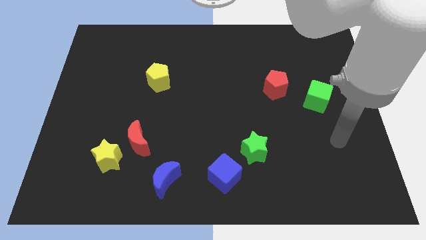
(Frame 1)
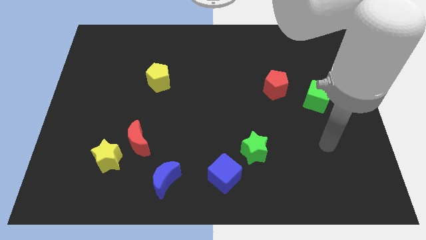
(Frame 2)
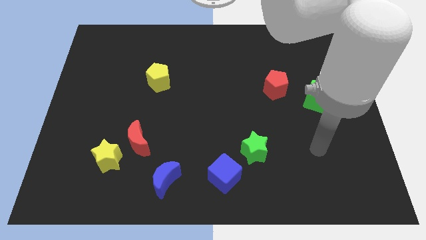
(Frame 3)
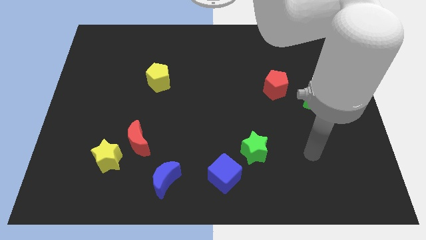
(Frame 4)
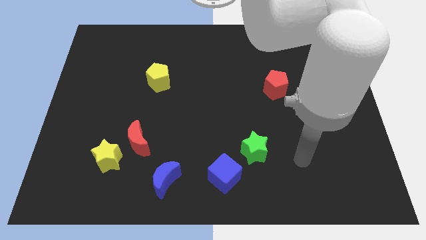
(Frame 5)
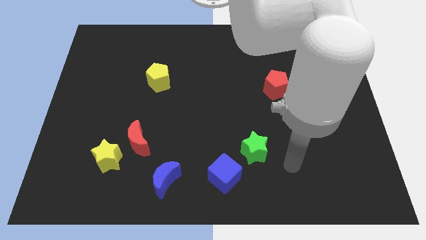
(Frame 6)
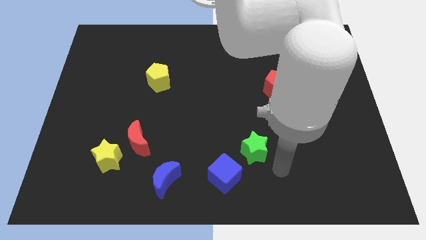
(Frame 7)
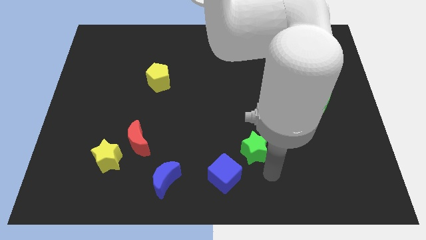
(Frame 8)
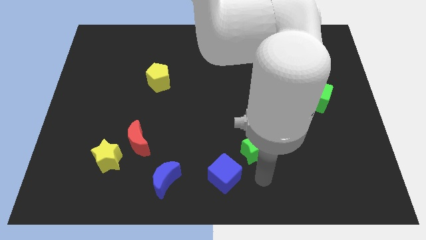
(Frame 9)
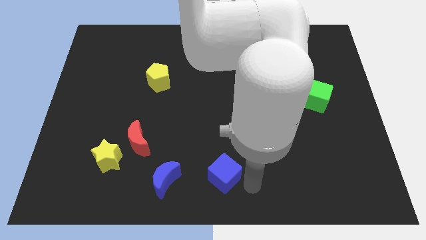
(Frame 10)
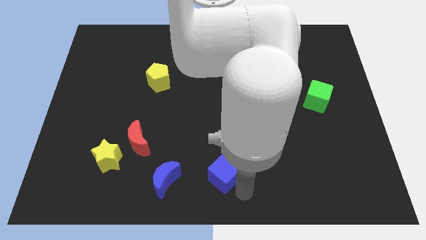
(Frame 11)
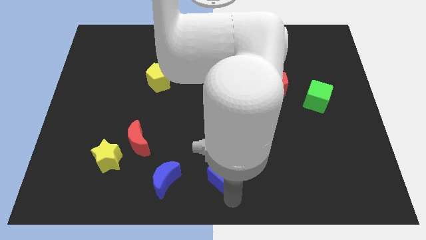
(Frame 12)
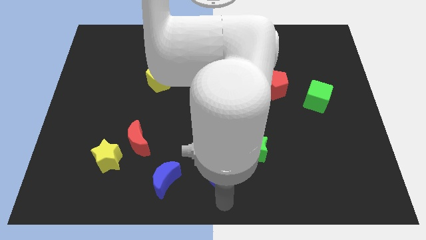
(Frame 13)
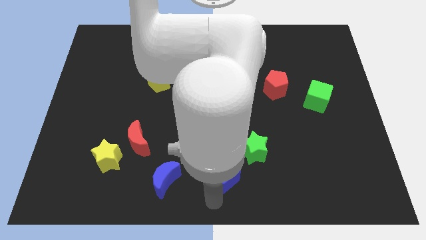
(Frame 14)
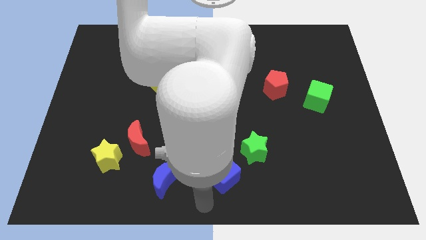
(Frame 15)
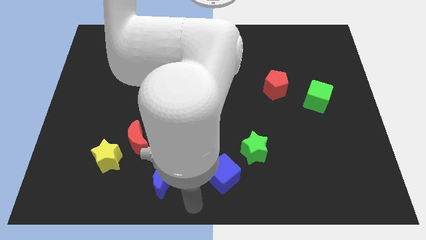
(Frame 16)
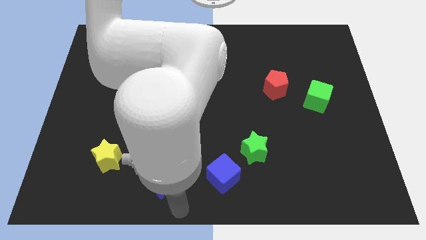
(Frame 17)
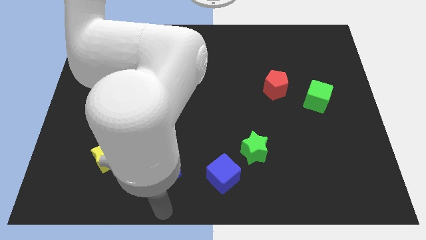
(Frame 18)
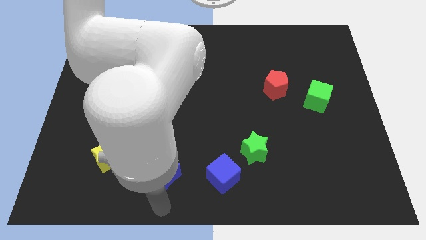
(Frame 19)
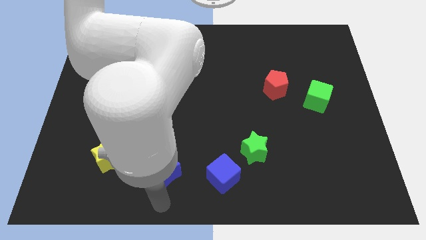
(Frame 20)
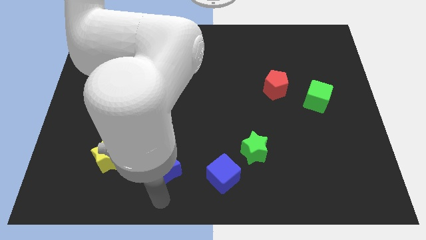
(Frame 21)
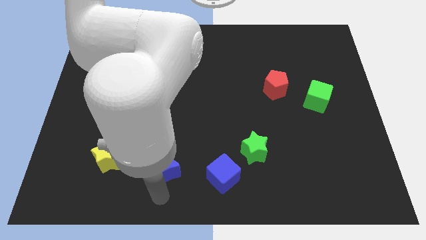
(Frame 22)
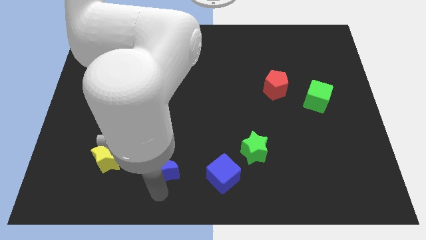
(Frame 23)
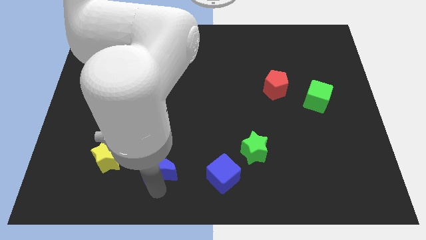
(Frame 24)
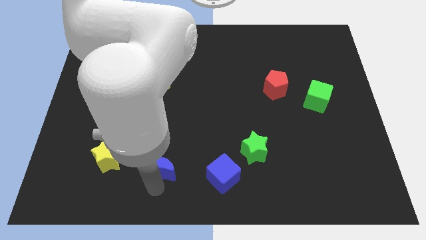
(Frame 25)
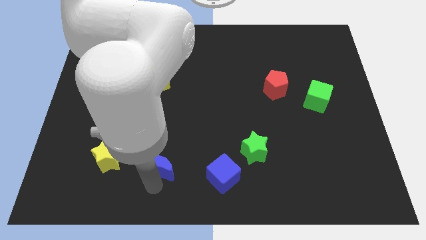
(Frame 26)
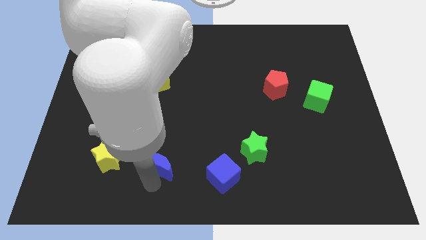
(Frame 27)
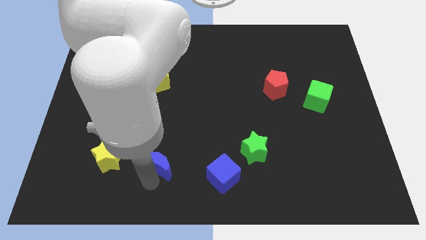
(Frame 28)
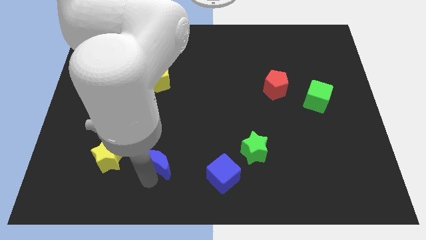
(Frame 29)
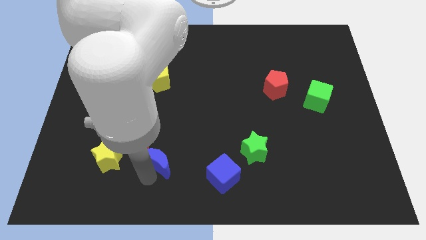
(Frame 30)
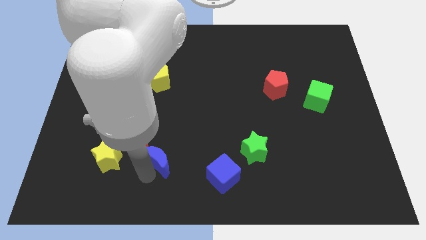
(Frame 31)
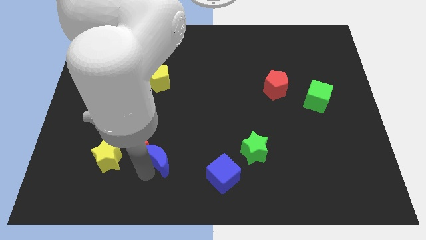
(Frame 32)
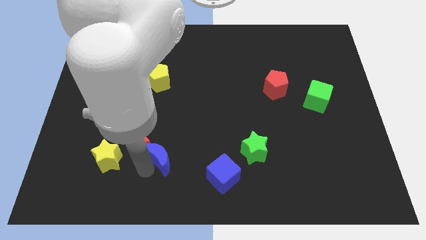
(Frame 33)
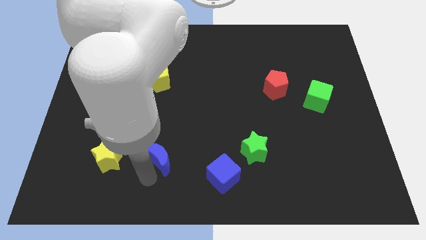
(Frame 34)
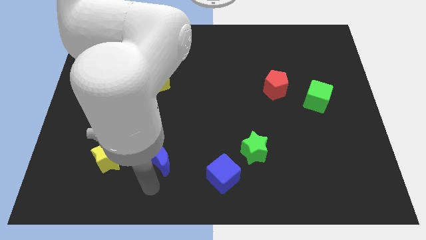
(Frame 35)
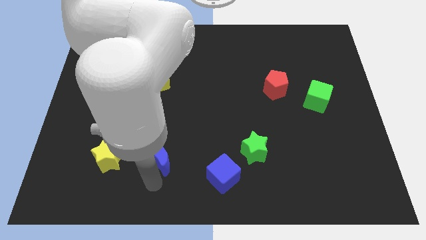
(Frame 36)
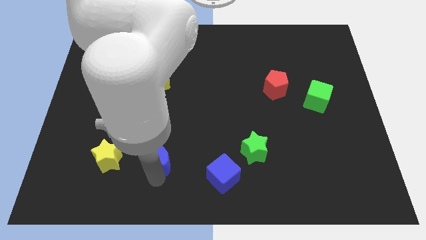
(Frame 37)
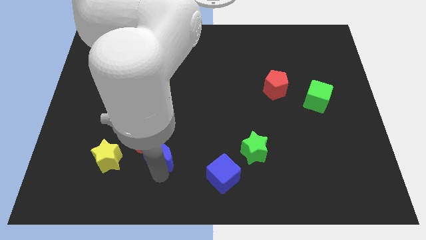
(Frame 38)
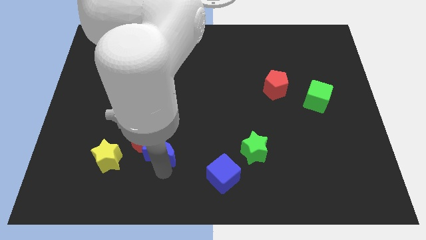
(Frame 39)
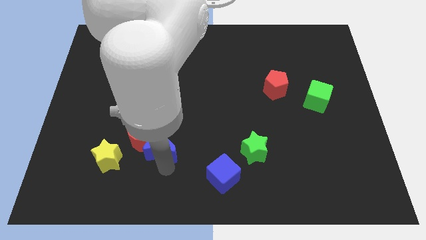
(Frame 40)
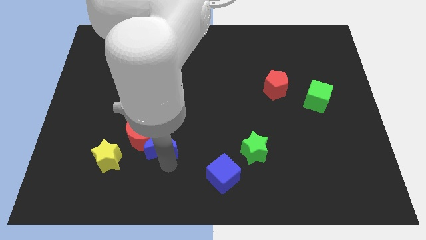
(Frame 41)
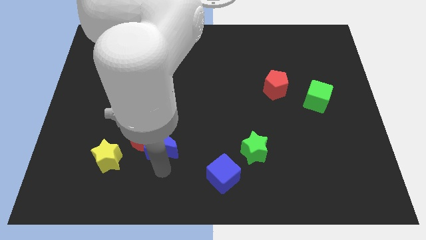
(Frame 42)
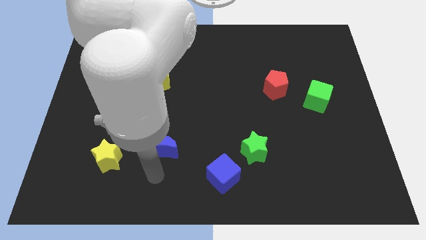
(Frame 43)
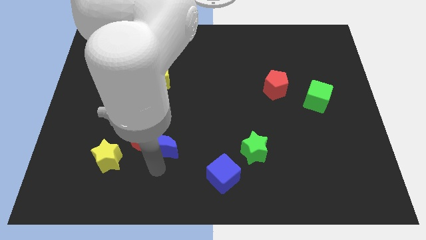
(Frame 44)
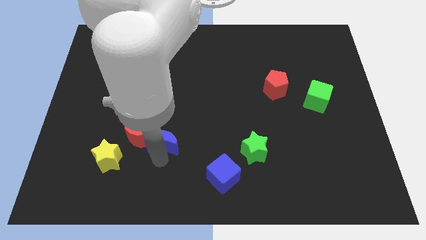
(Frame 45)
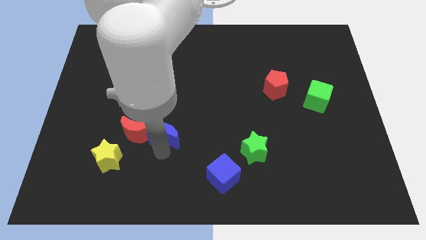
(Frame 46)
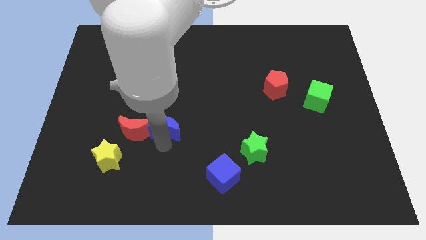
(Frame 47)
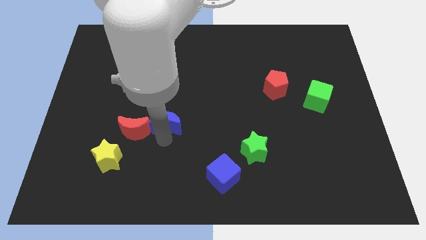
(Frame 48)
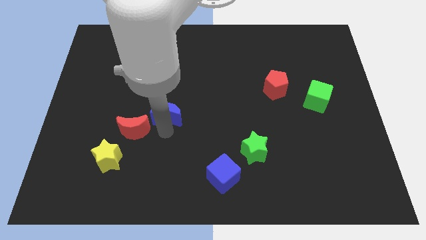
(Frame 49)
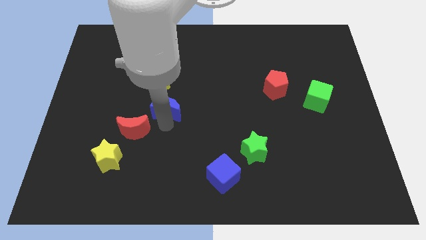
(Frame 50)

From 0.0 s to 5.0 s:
slide the blue moon to the bottom right of the yellow pentagon

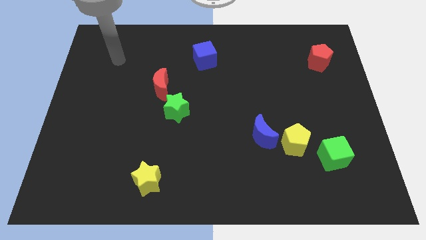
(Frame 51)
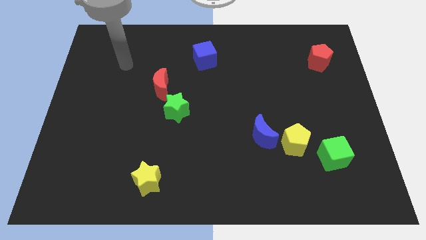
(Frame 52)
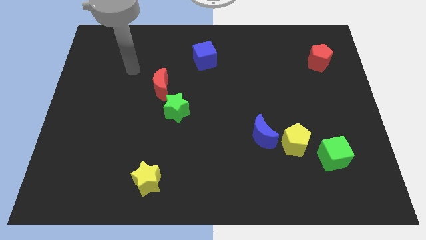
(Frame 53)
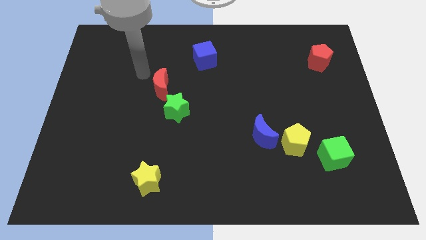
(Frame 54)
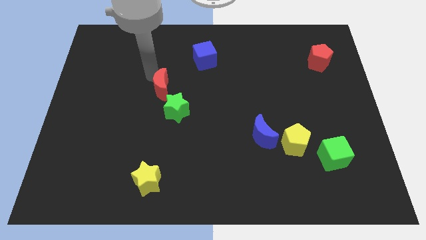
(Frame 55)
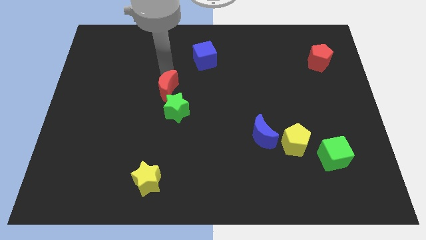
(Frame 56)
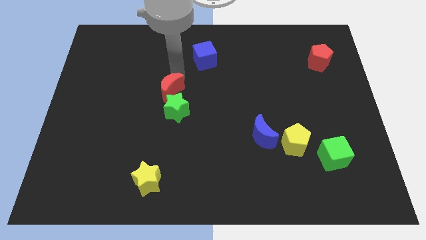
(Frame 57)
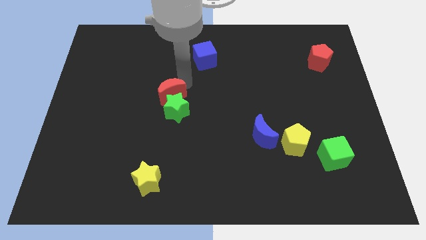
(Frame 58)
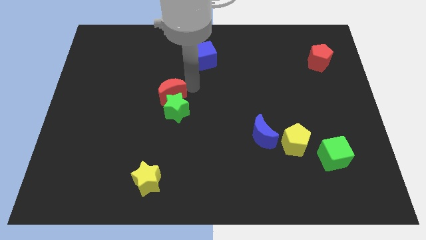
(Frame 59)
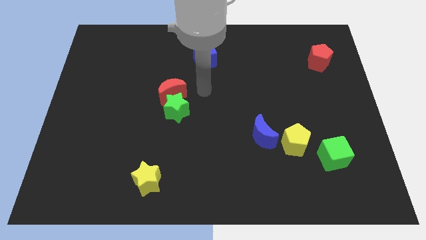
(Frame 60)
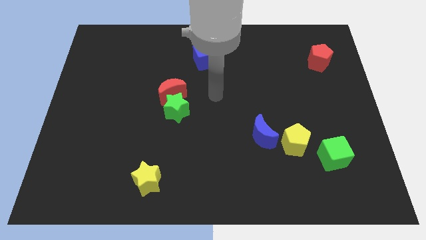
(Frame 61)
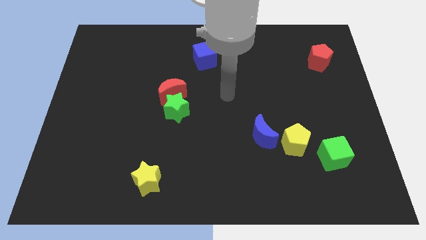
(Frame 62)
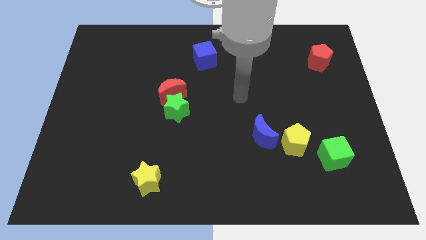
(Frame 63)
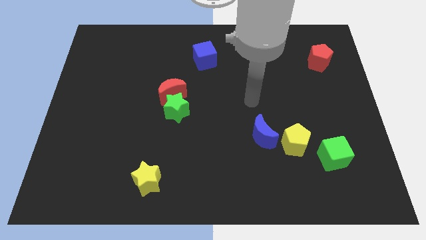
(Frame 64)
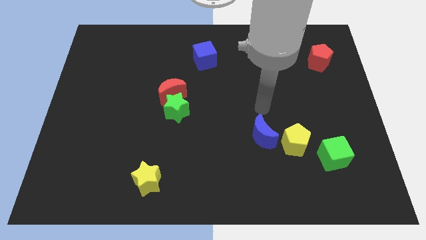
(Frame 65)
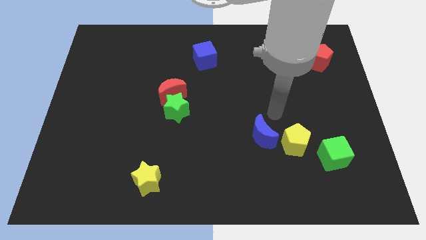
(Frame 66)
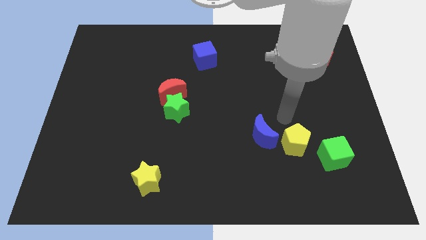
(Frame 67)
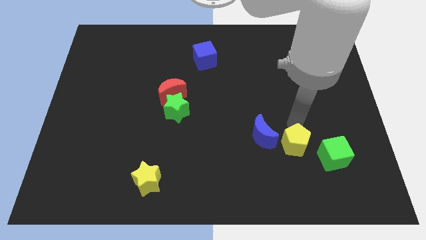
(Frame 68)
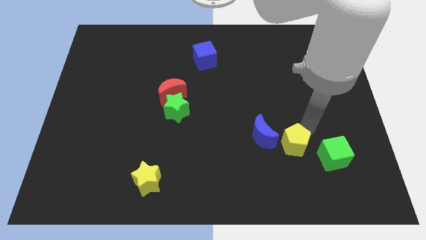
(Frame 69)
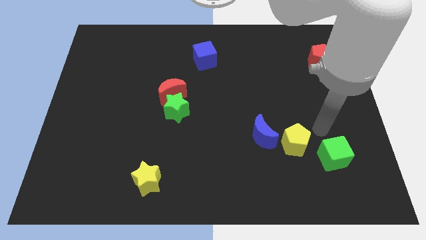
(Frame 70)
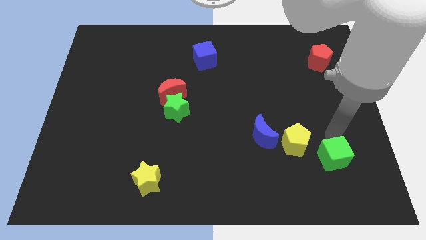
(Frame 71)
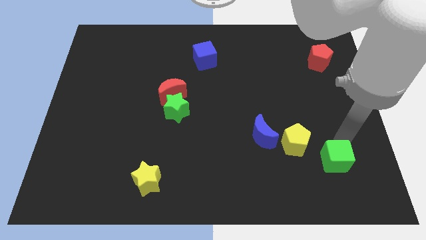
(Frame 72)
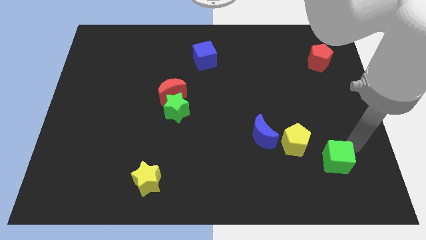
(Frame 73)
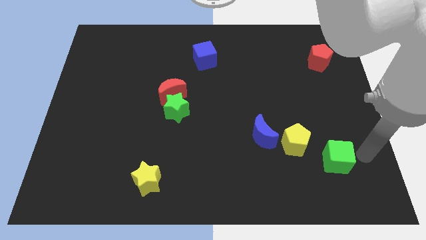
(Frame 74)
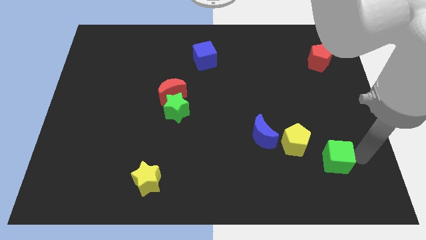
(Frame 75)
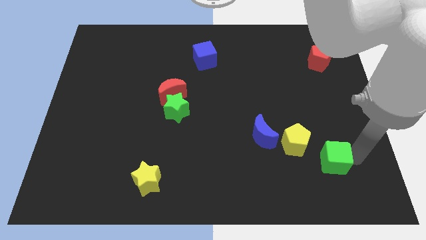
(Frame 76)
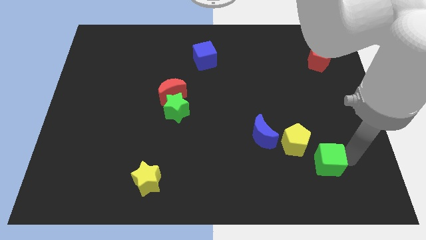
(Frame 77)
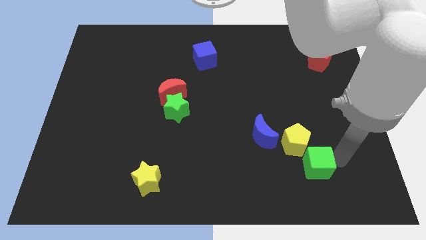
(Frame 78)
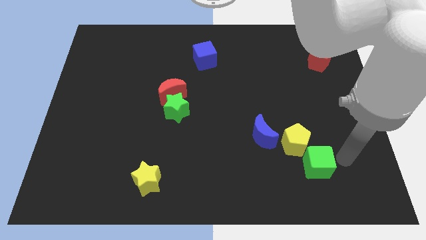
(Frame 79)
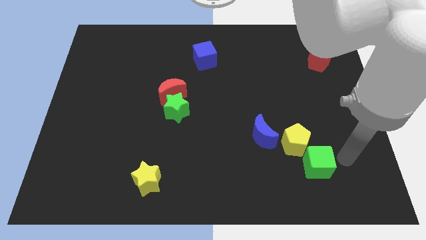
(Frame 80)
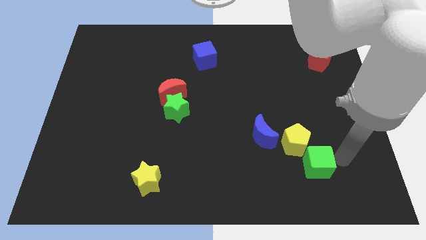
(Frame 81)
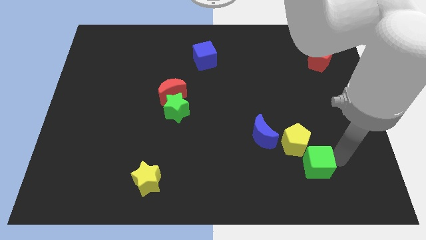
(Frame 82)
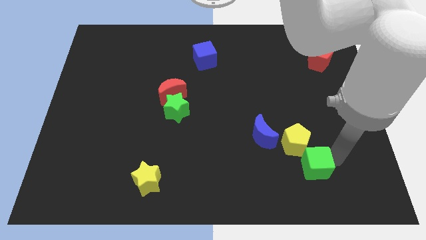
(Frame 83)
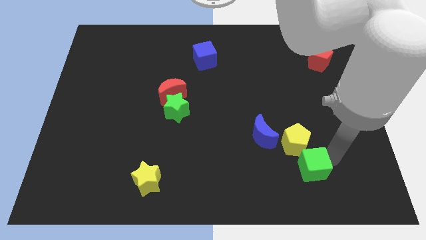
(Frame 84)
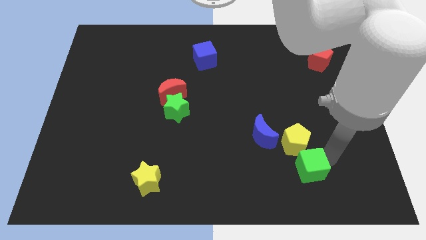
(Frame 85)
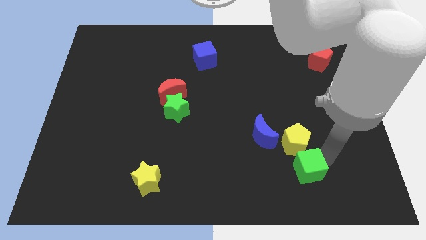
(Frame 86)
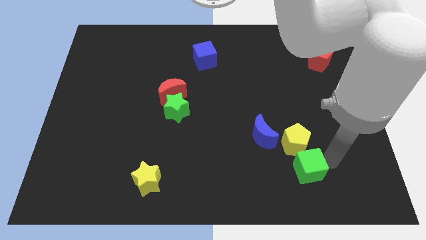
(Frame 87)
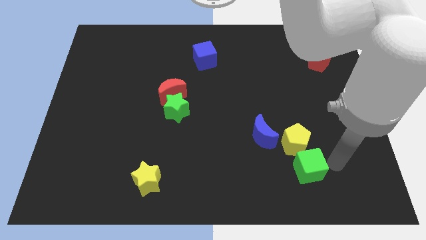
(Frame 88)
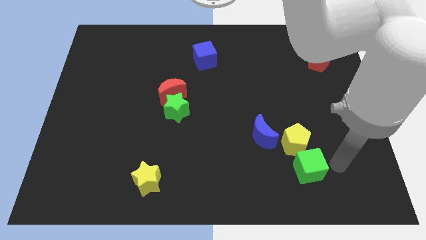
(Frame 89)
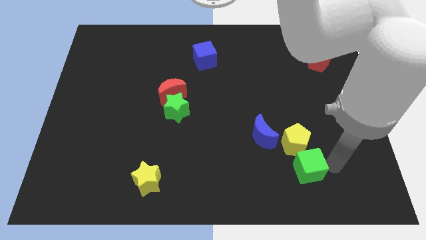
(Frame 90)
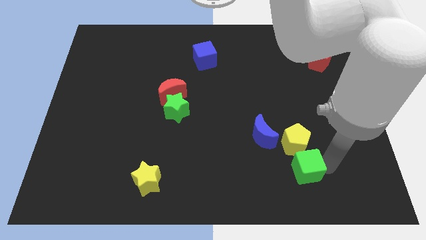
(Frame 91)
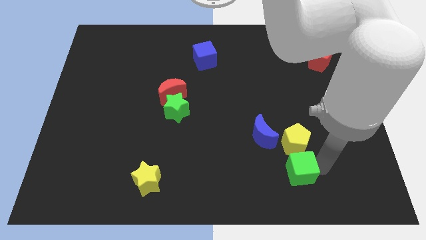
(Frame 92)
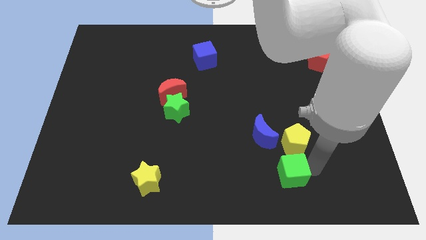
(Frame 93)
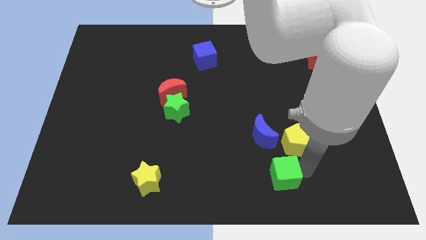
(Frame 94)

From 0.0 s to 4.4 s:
push the green cube below the blue moon
